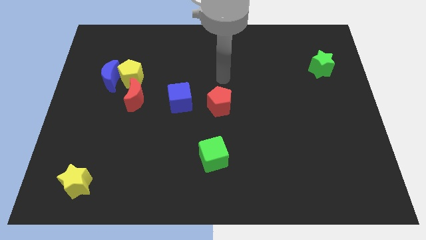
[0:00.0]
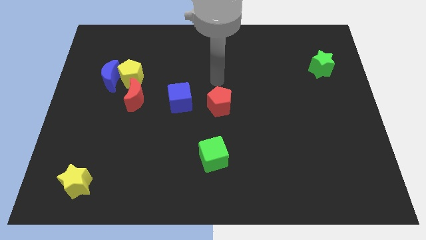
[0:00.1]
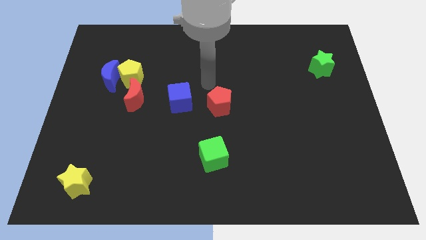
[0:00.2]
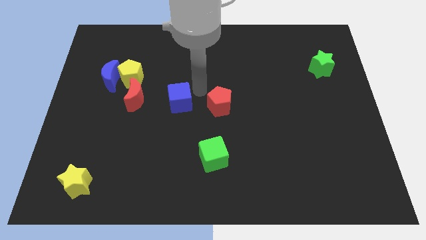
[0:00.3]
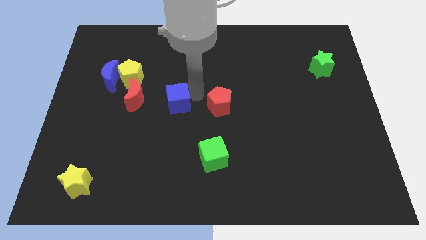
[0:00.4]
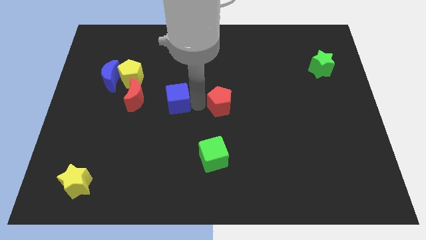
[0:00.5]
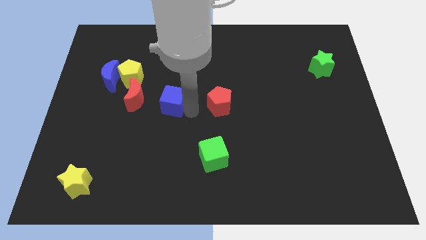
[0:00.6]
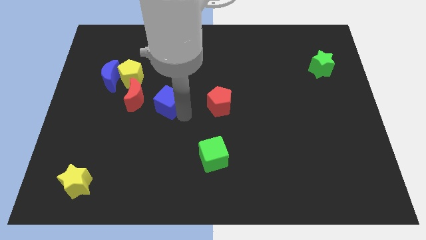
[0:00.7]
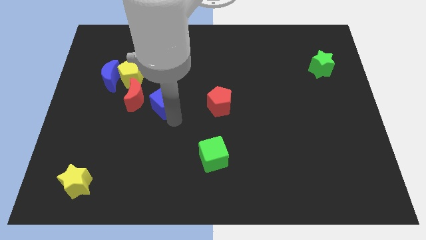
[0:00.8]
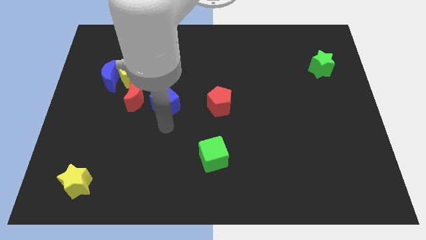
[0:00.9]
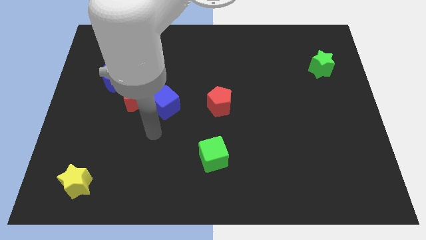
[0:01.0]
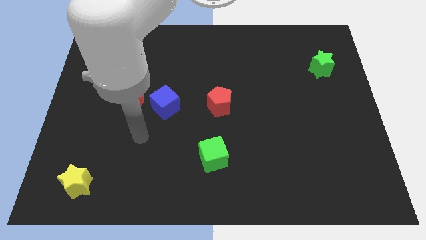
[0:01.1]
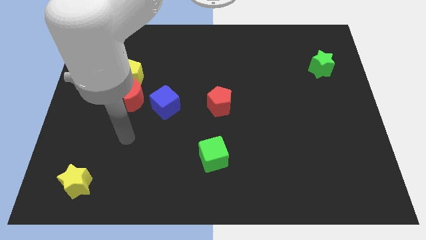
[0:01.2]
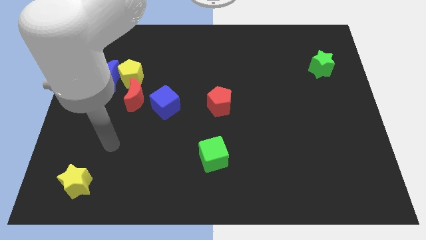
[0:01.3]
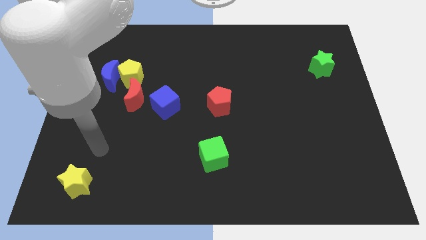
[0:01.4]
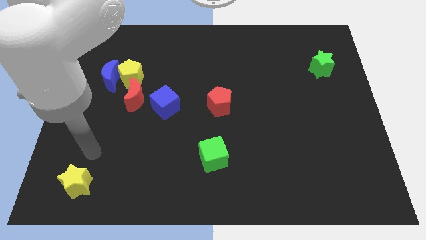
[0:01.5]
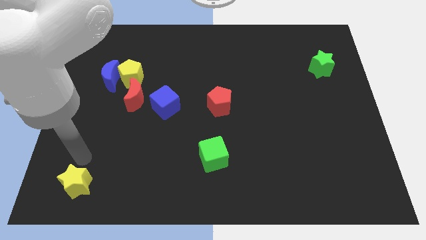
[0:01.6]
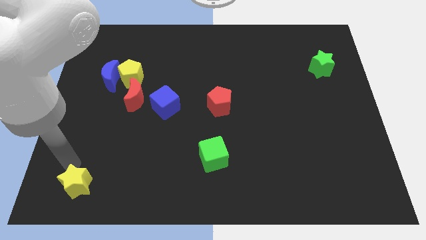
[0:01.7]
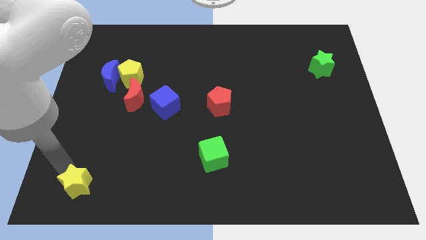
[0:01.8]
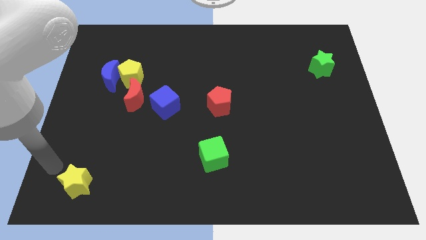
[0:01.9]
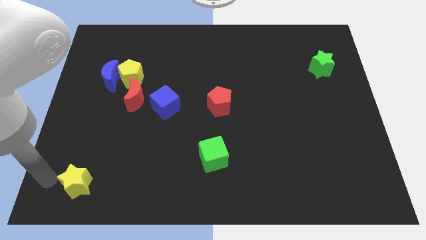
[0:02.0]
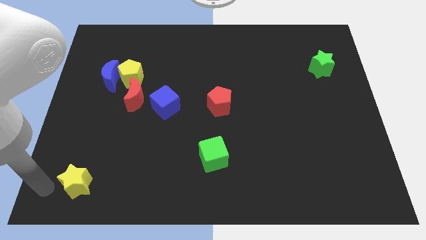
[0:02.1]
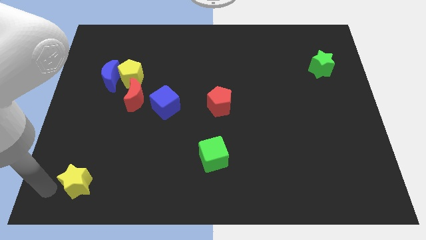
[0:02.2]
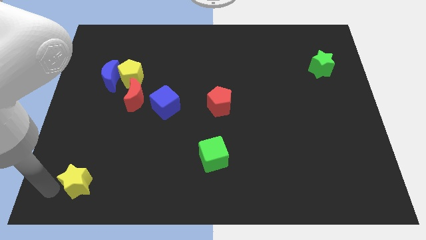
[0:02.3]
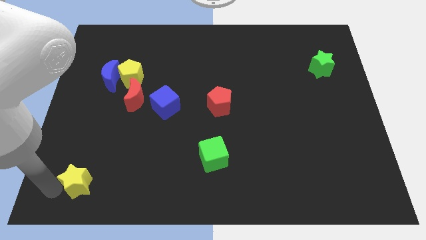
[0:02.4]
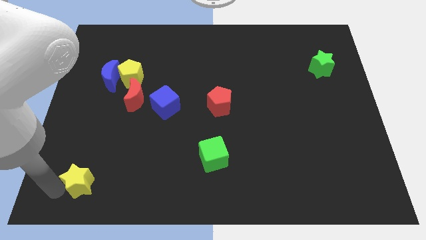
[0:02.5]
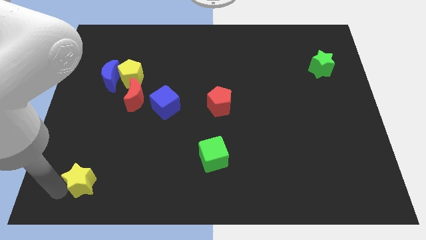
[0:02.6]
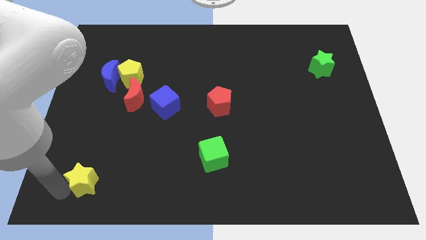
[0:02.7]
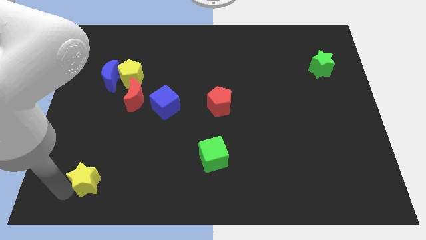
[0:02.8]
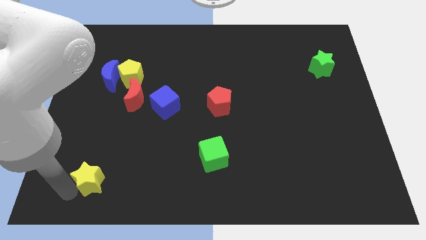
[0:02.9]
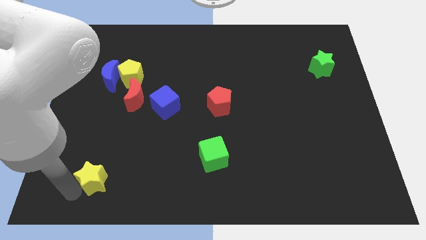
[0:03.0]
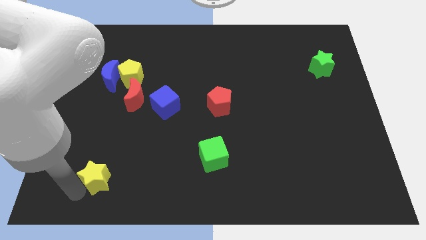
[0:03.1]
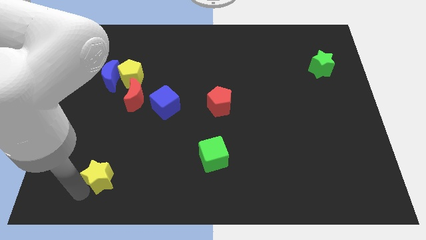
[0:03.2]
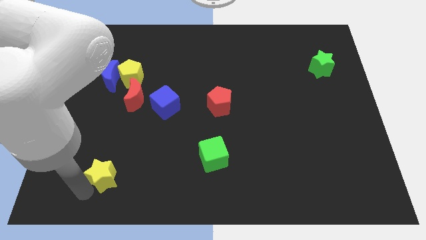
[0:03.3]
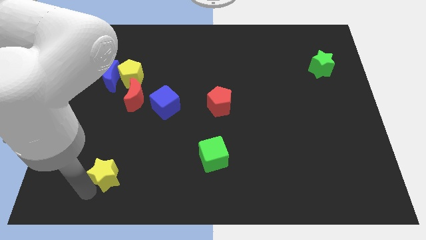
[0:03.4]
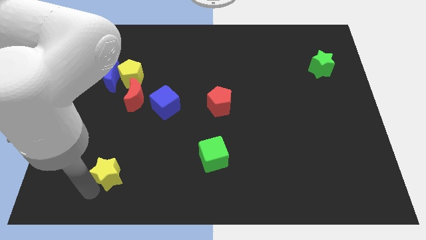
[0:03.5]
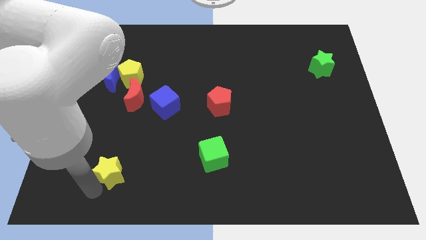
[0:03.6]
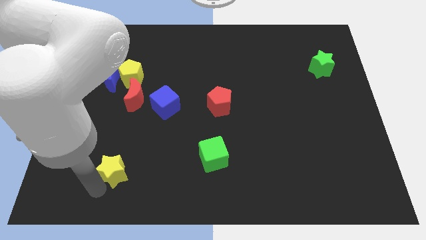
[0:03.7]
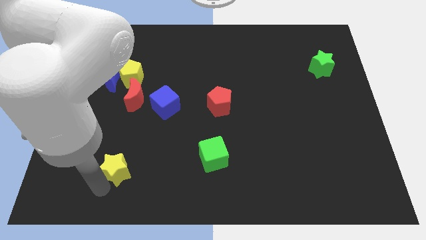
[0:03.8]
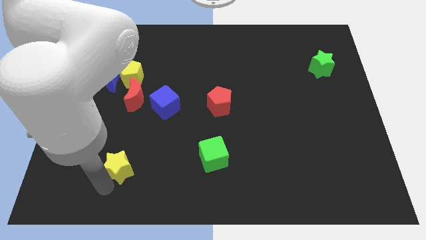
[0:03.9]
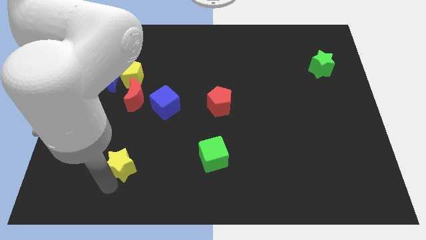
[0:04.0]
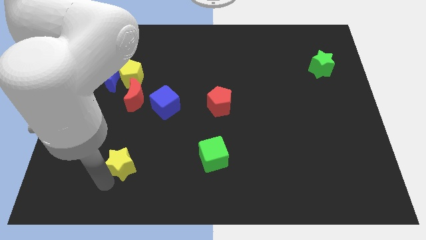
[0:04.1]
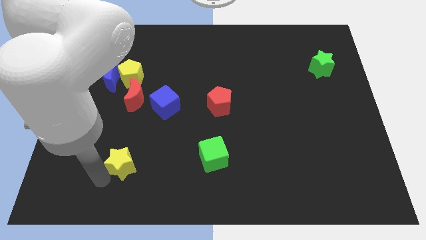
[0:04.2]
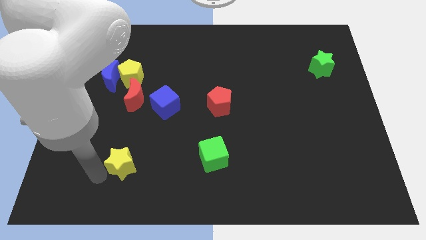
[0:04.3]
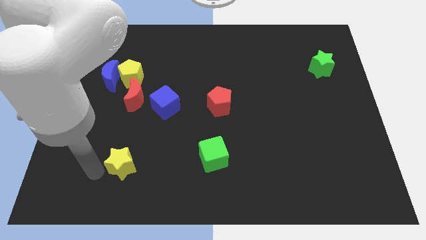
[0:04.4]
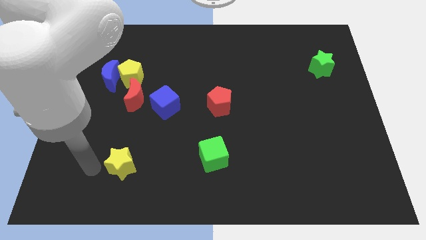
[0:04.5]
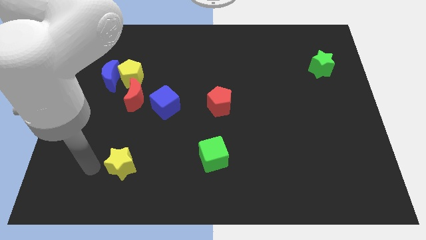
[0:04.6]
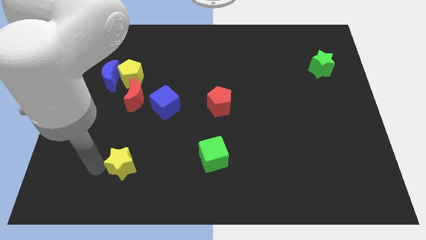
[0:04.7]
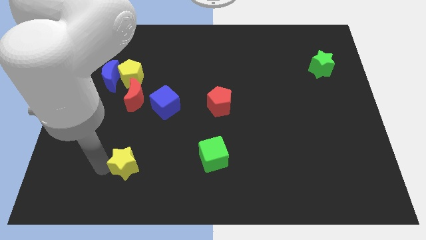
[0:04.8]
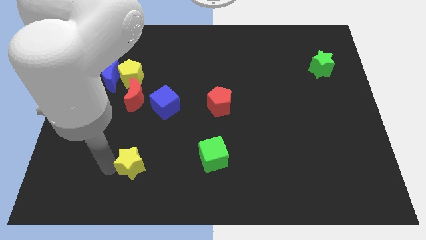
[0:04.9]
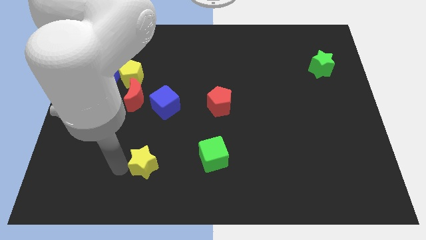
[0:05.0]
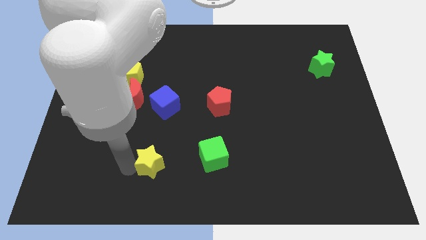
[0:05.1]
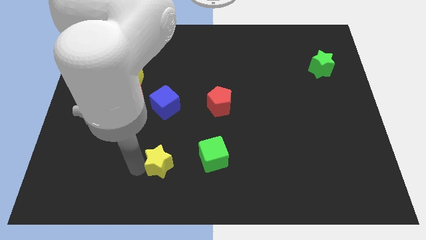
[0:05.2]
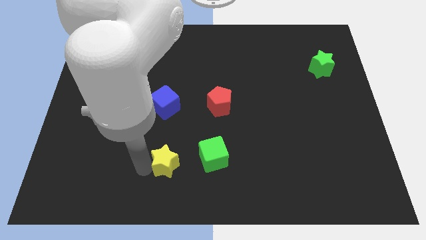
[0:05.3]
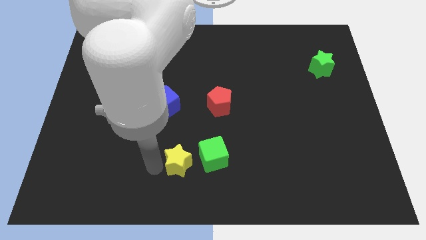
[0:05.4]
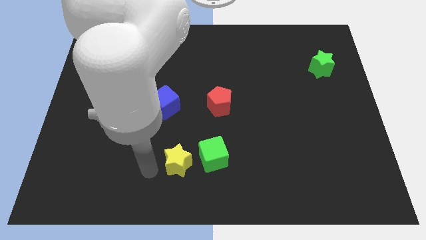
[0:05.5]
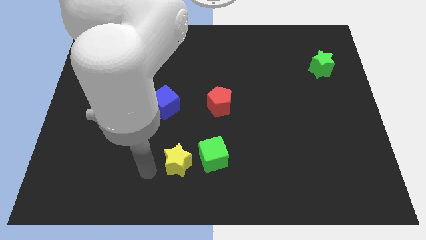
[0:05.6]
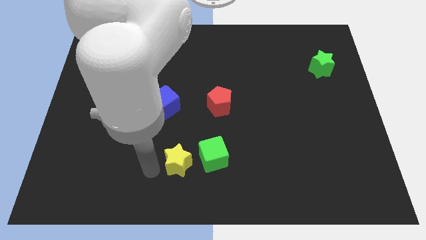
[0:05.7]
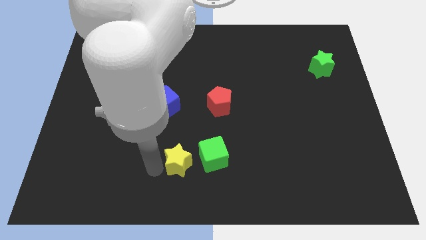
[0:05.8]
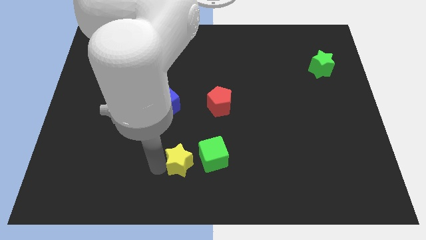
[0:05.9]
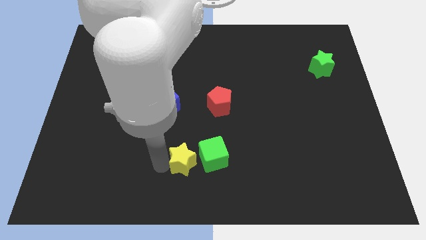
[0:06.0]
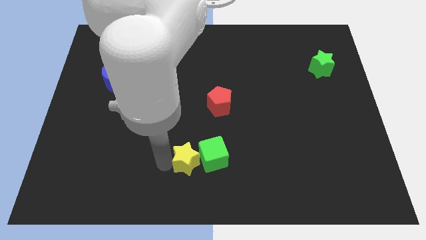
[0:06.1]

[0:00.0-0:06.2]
push the yellow star to the green cube
